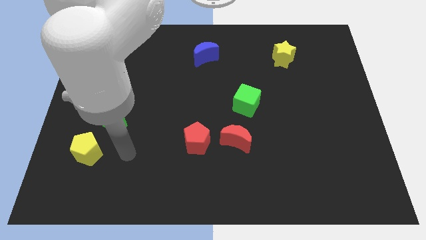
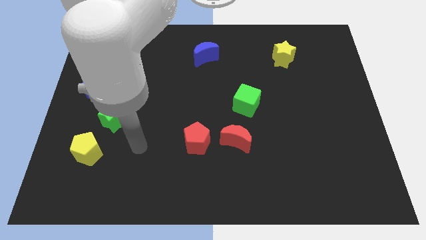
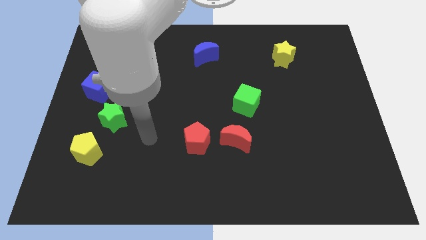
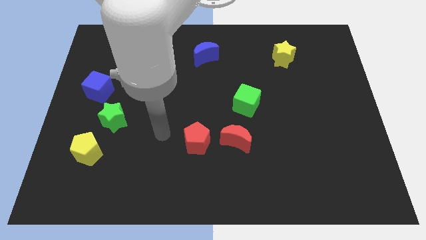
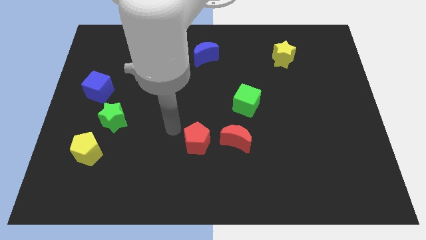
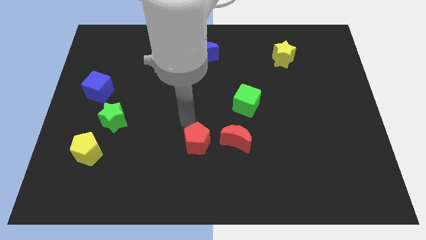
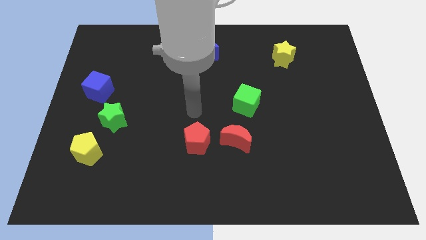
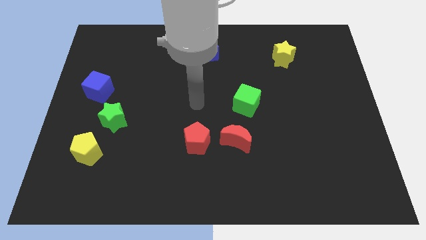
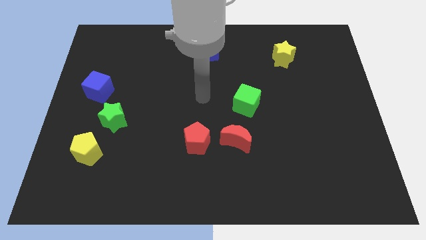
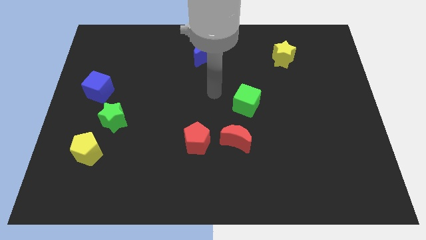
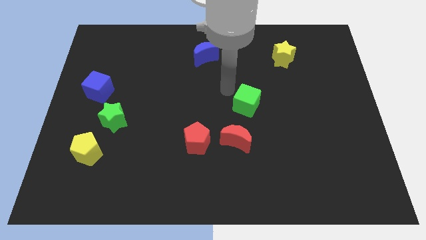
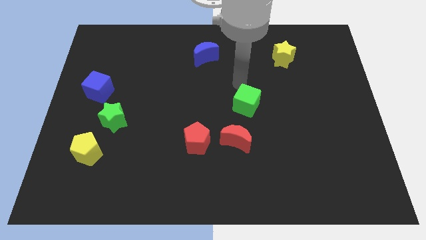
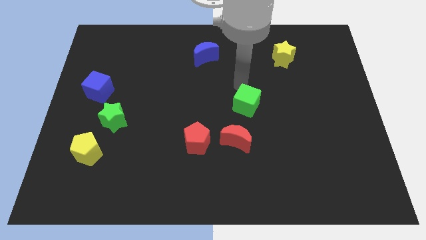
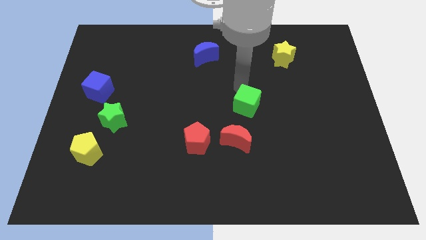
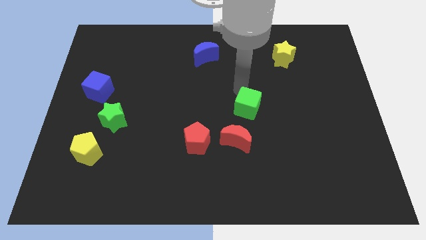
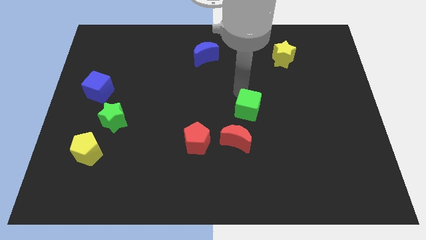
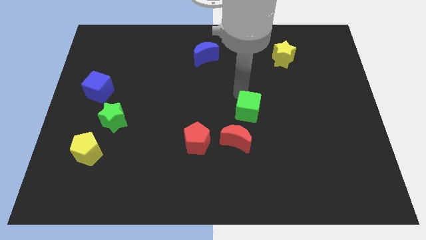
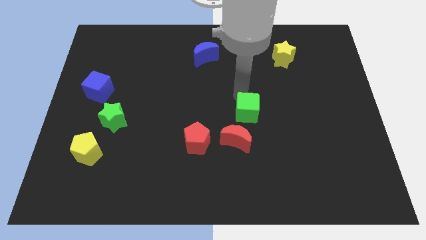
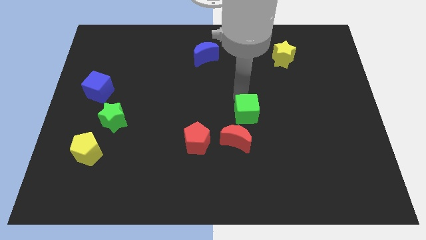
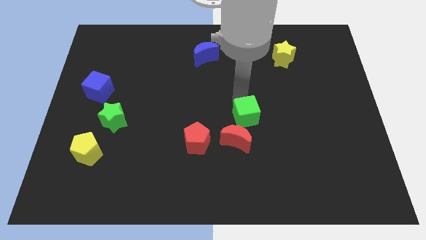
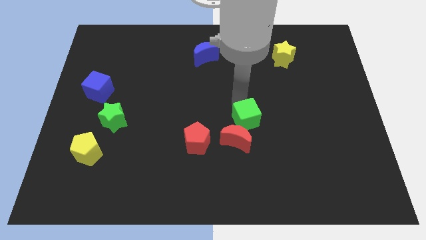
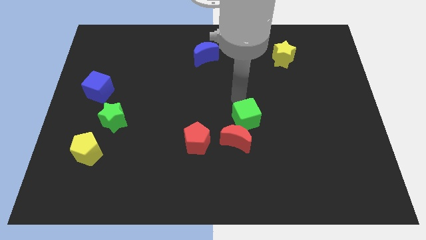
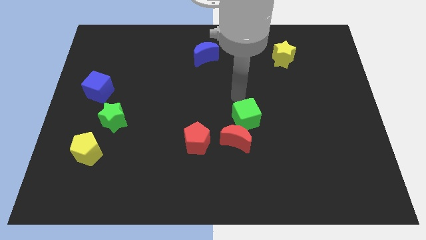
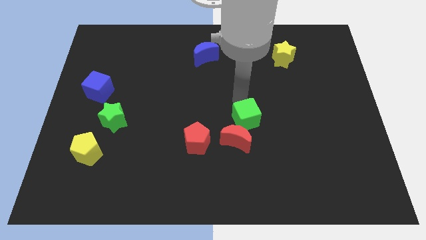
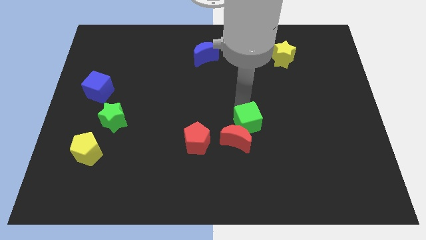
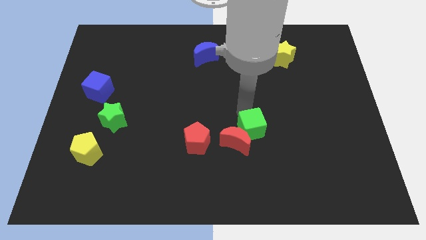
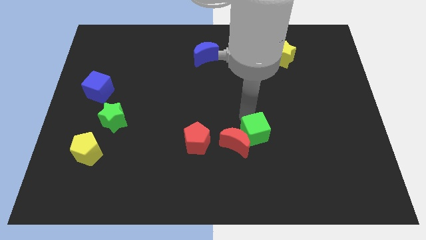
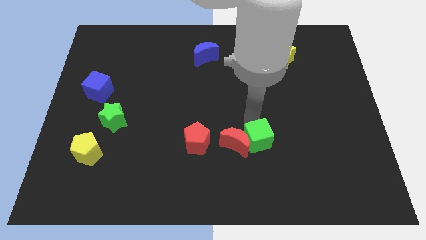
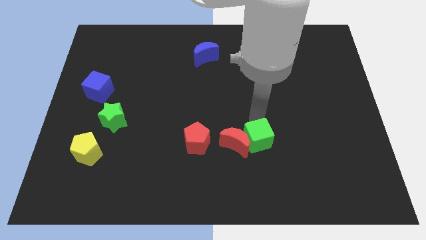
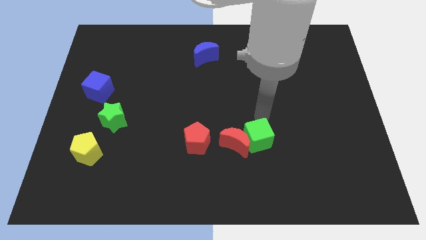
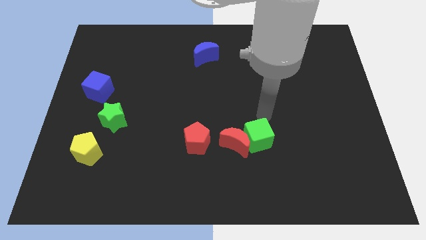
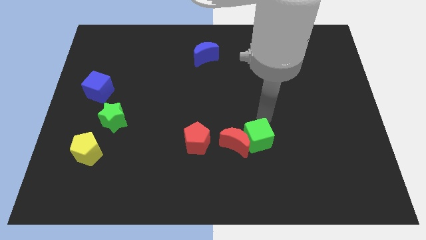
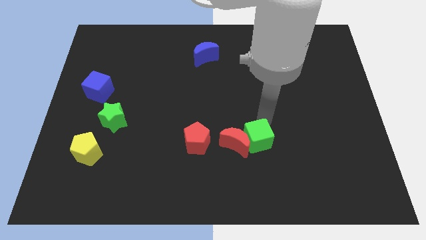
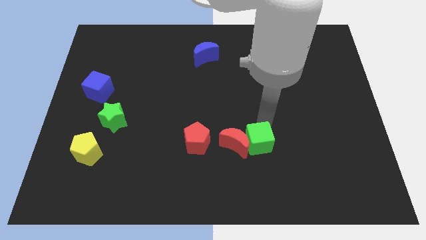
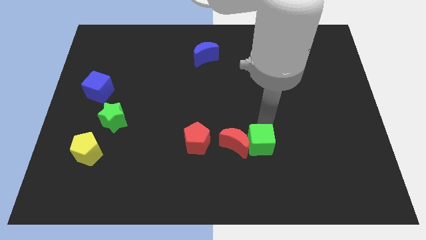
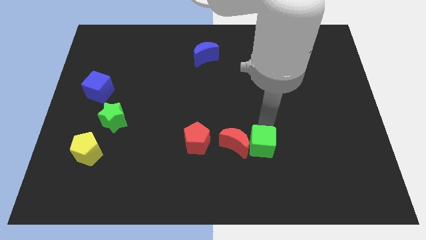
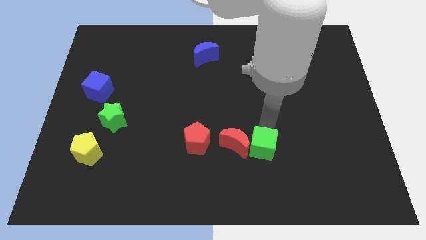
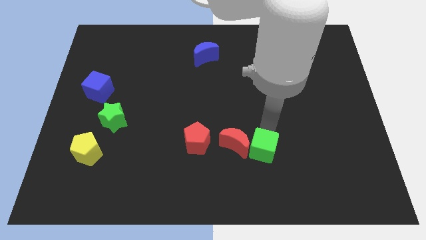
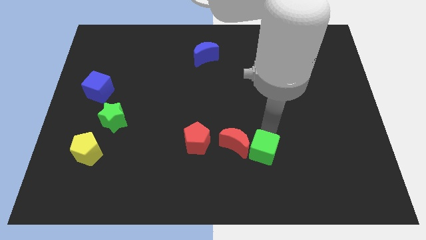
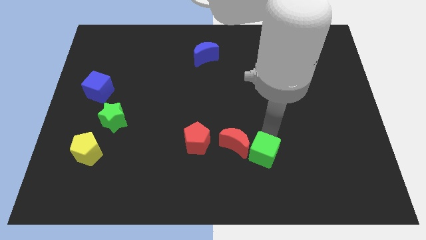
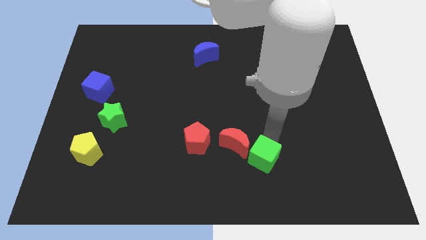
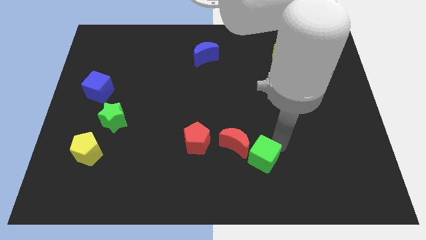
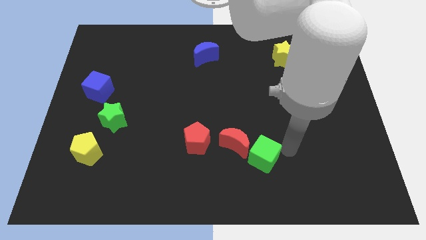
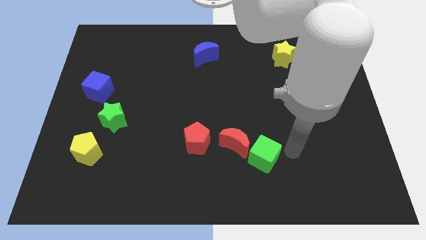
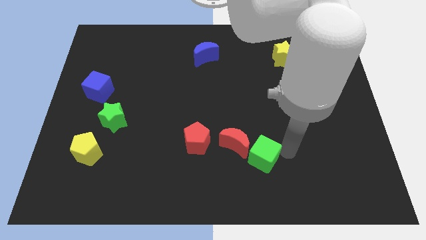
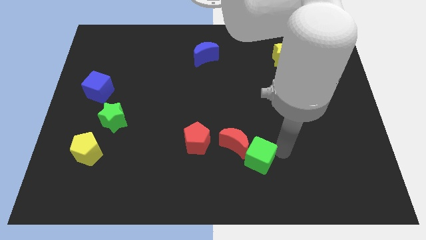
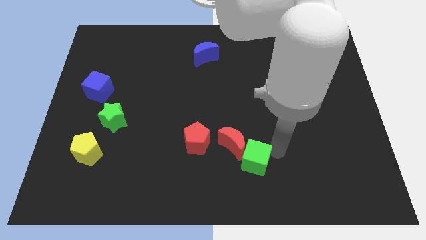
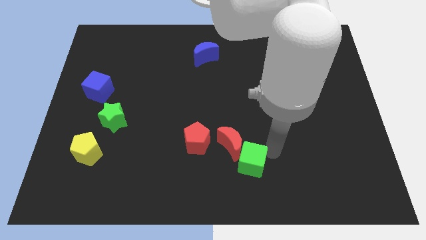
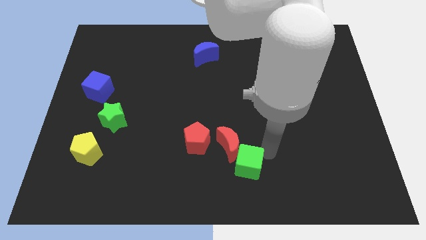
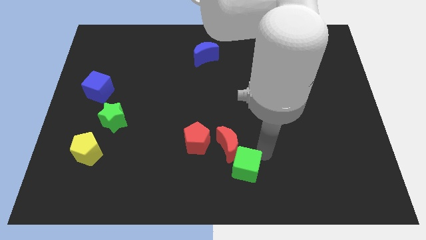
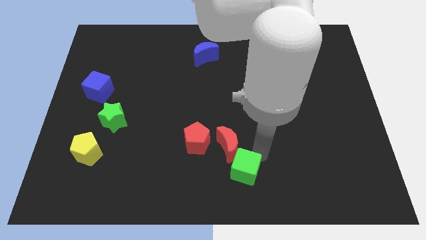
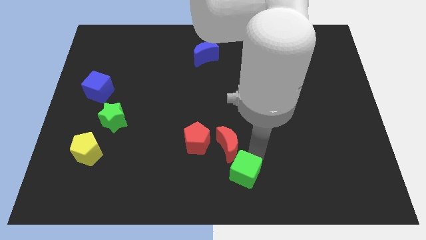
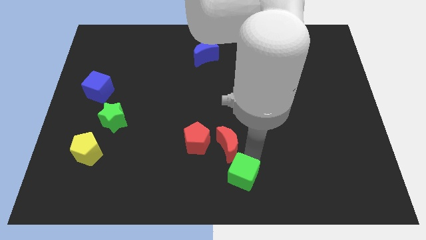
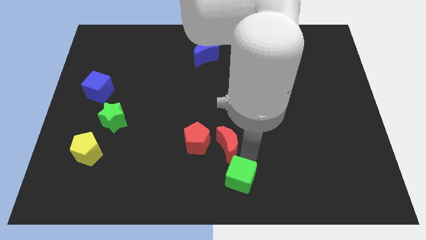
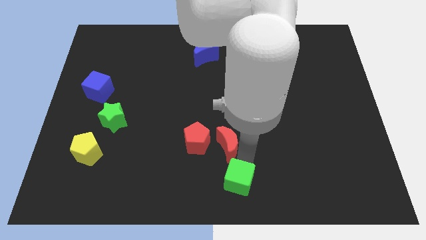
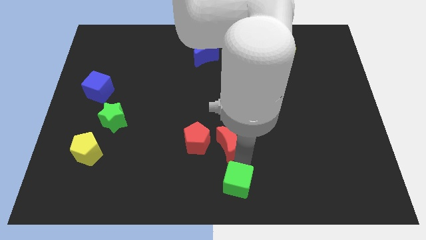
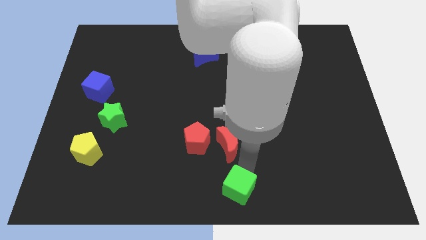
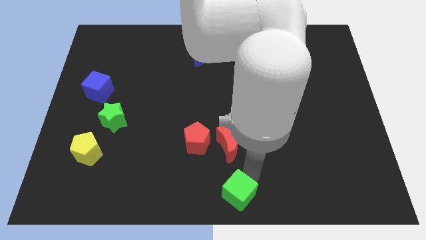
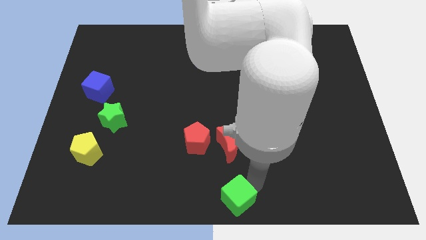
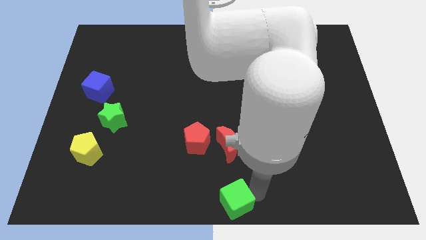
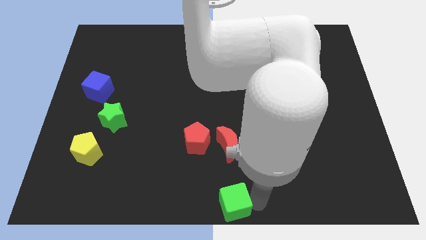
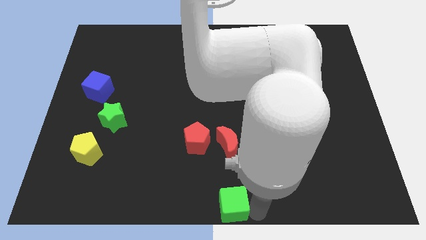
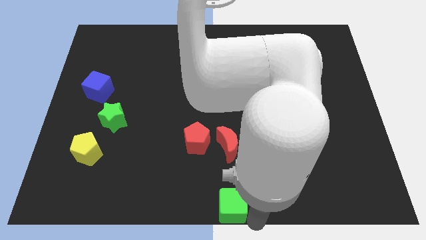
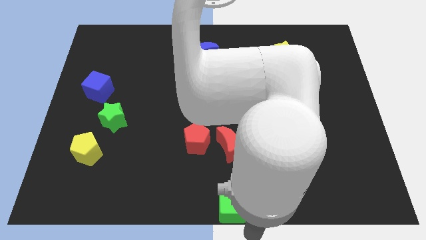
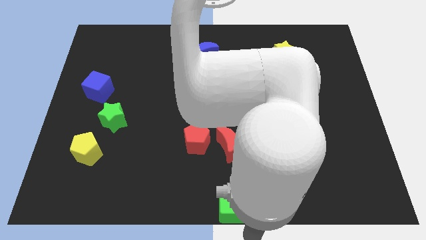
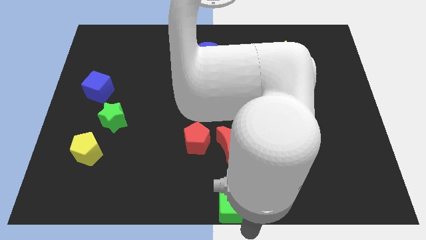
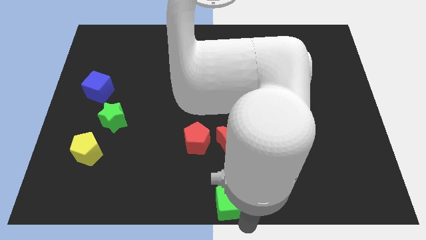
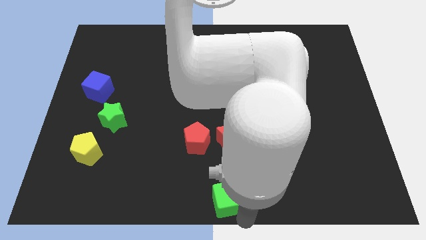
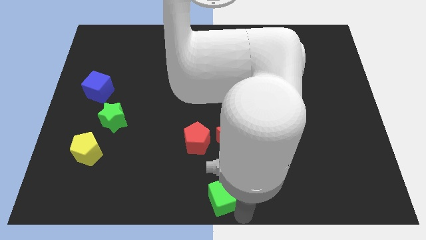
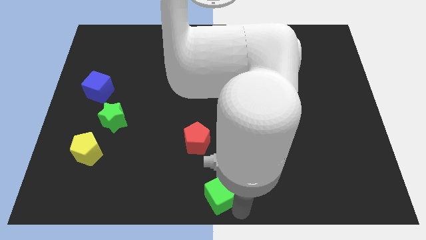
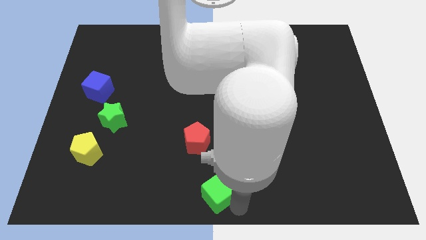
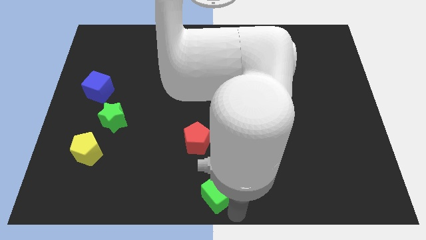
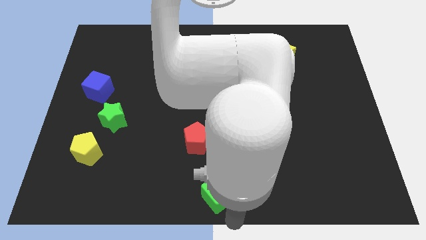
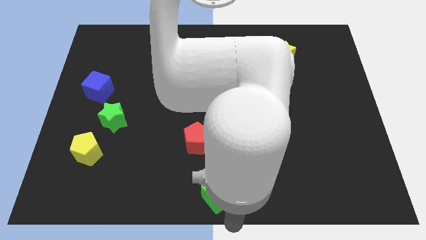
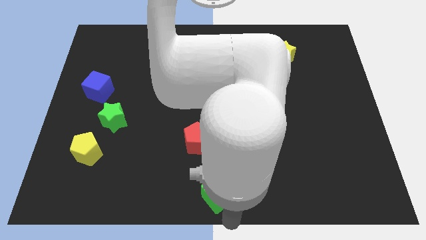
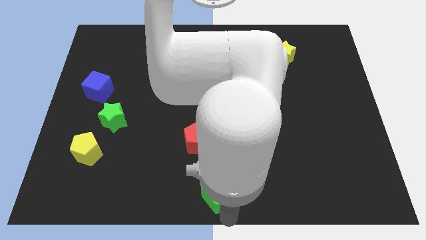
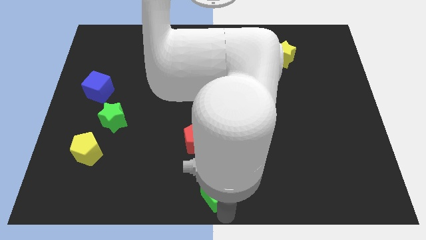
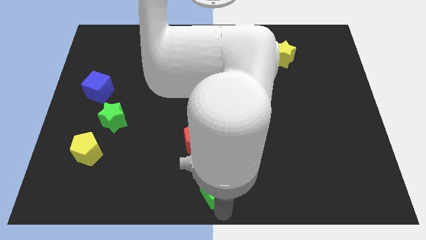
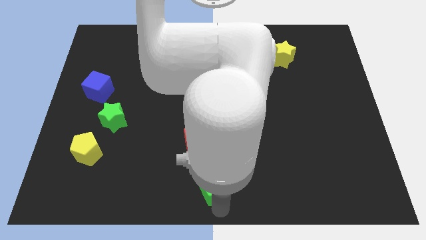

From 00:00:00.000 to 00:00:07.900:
put the green cube to the bottom left side of the red moon
